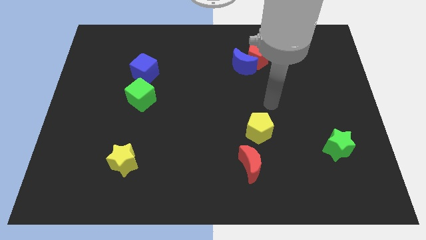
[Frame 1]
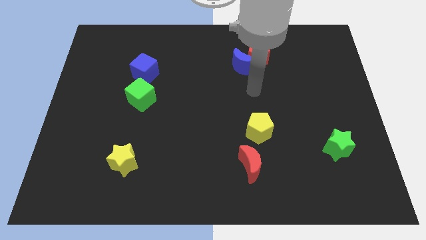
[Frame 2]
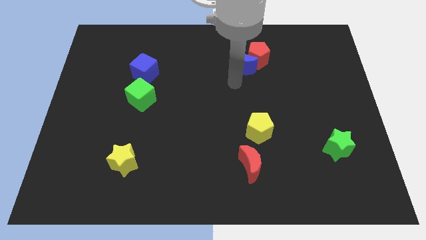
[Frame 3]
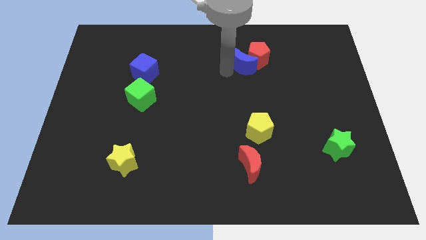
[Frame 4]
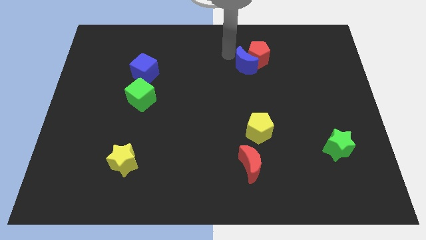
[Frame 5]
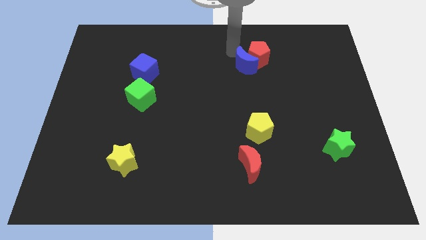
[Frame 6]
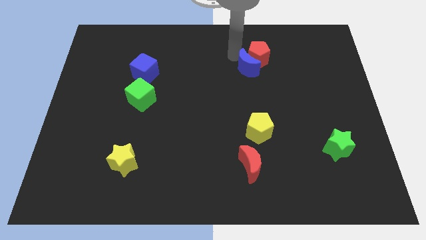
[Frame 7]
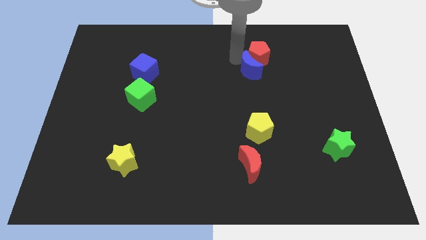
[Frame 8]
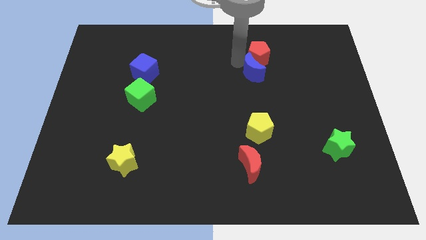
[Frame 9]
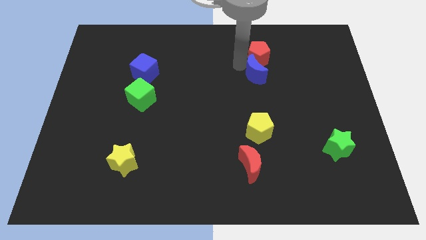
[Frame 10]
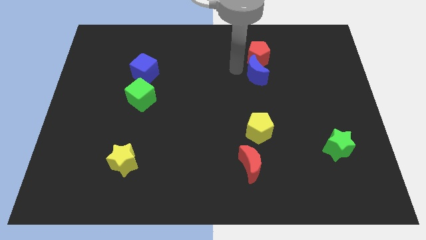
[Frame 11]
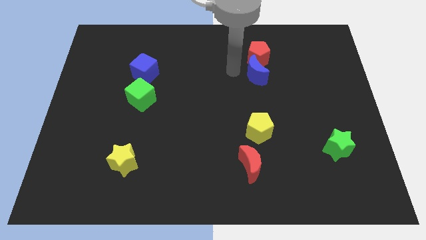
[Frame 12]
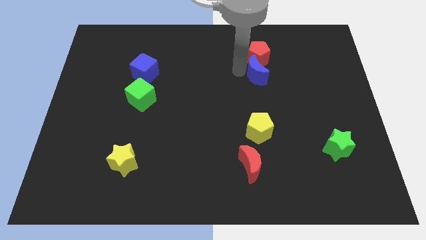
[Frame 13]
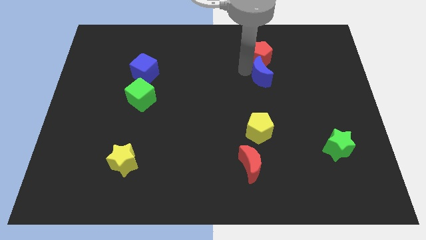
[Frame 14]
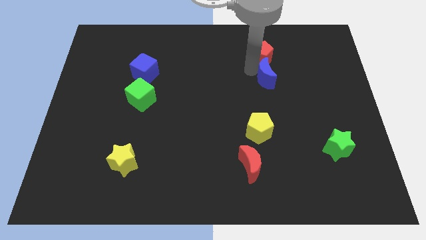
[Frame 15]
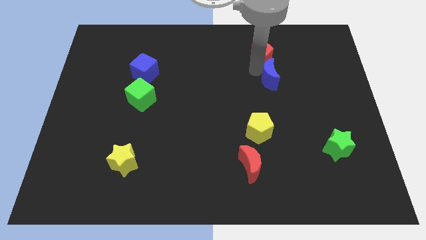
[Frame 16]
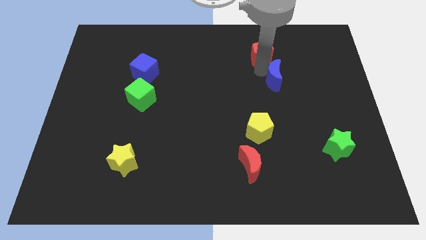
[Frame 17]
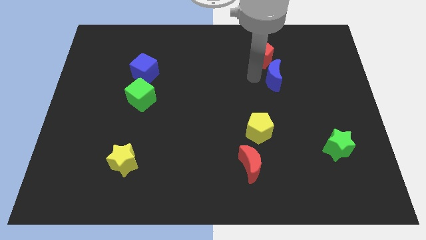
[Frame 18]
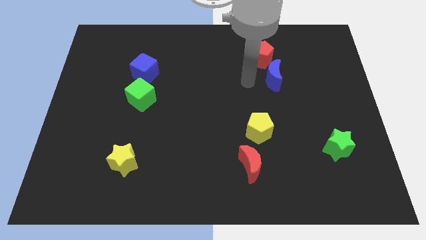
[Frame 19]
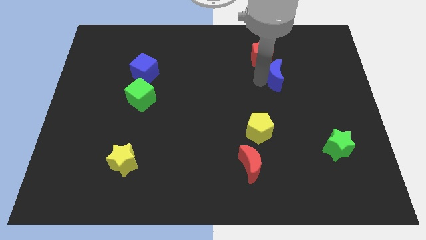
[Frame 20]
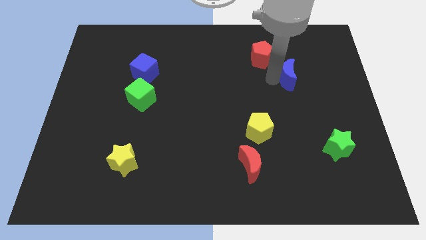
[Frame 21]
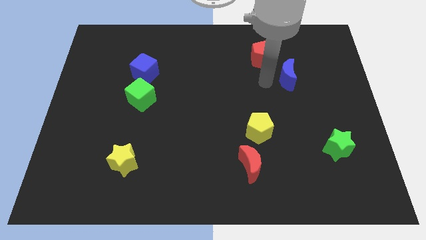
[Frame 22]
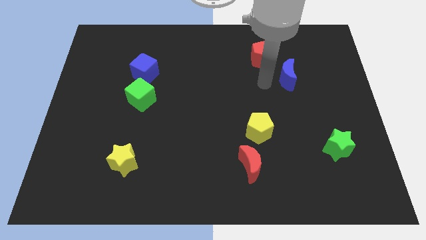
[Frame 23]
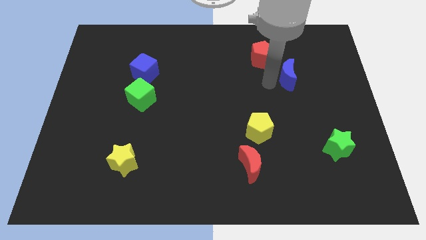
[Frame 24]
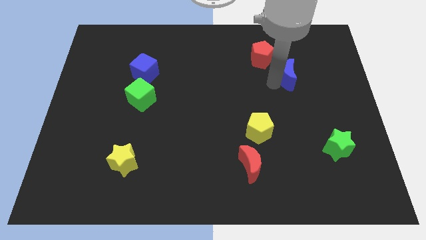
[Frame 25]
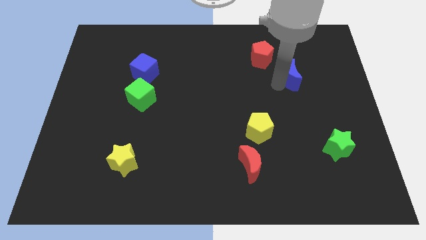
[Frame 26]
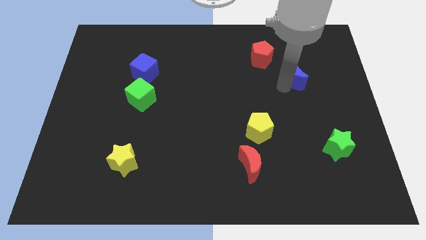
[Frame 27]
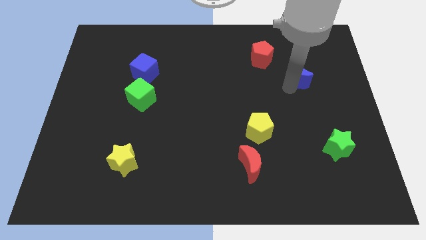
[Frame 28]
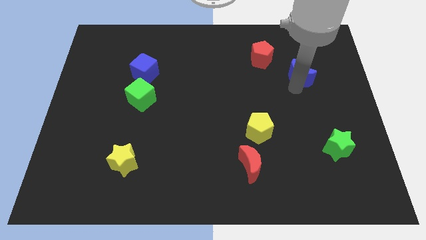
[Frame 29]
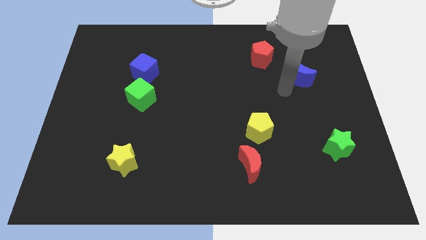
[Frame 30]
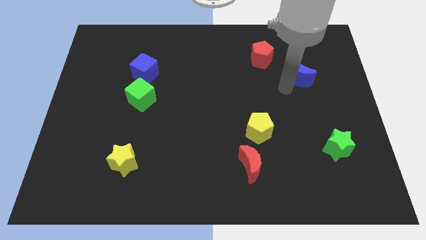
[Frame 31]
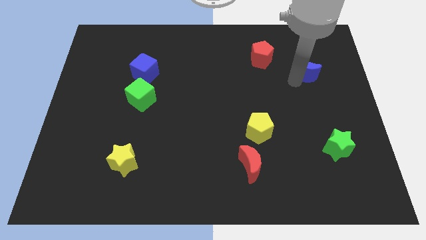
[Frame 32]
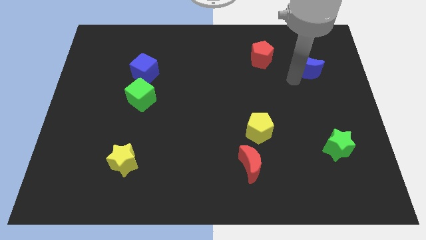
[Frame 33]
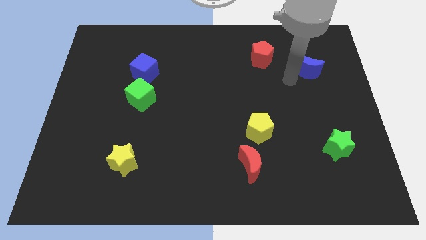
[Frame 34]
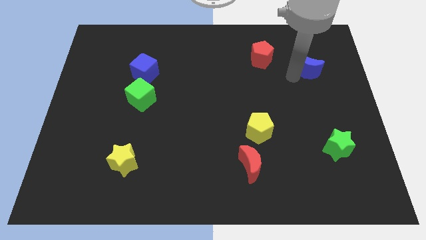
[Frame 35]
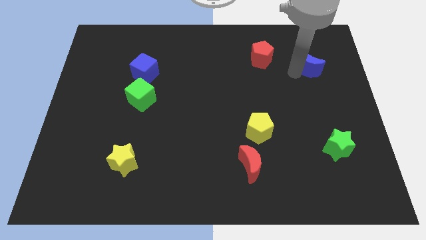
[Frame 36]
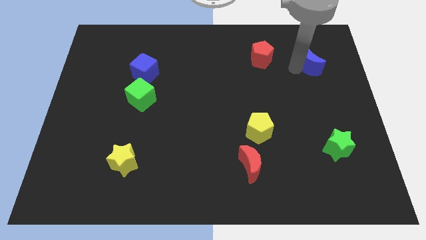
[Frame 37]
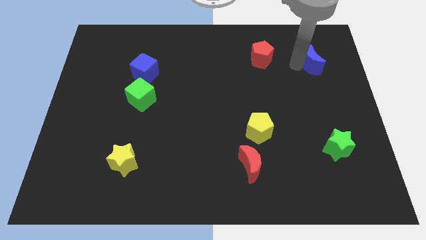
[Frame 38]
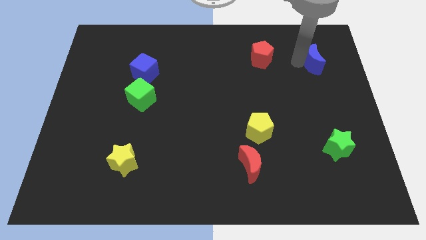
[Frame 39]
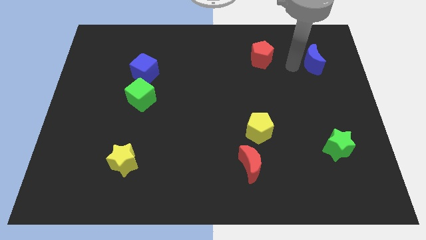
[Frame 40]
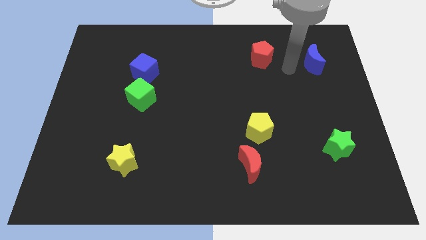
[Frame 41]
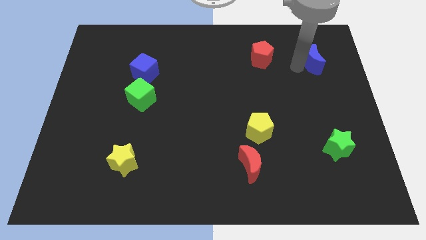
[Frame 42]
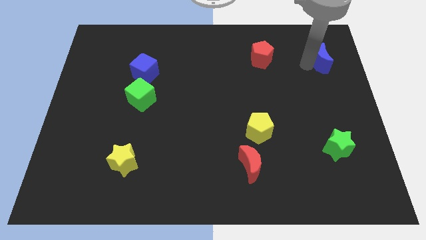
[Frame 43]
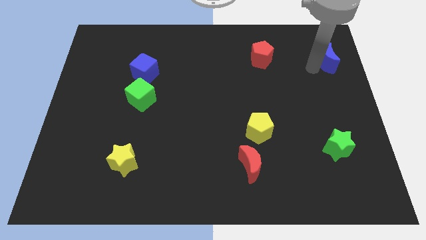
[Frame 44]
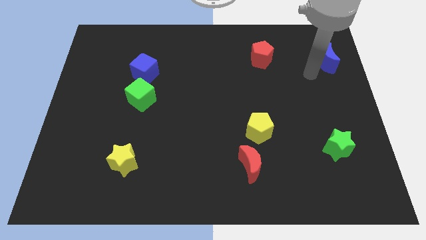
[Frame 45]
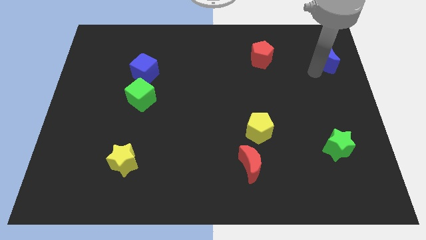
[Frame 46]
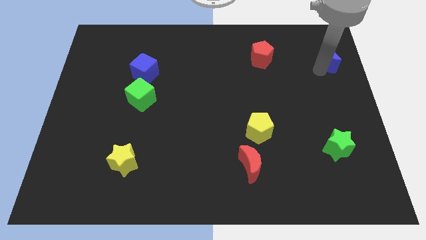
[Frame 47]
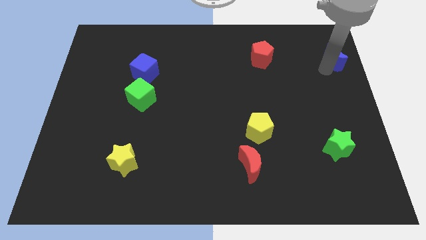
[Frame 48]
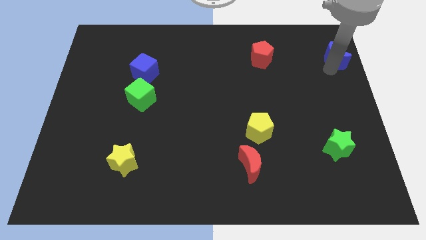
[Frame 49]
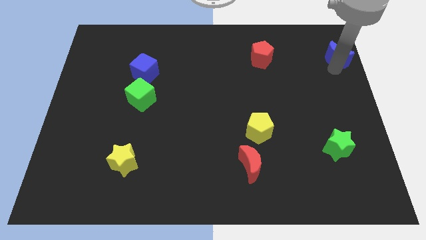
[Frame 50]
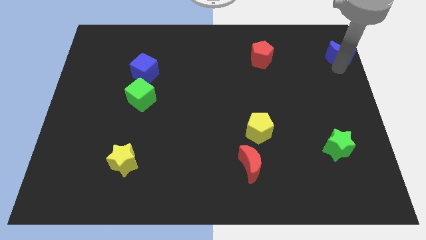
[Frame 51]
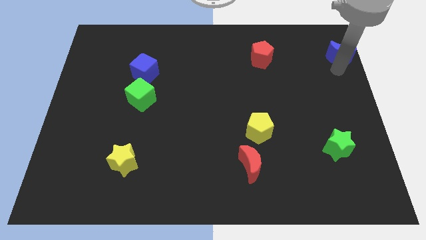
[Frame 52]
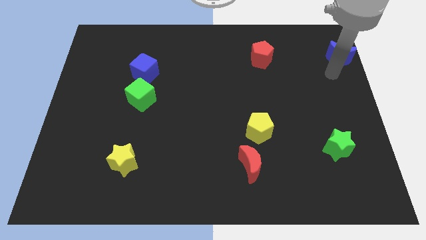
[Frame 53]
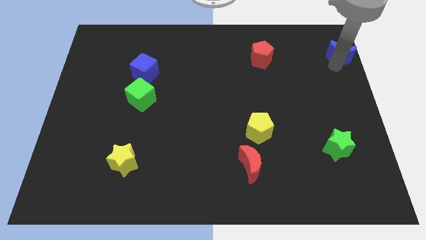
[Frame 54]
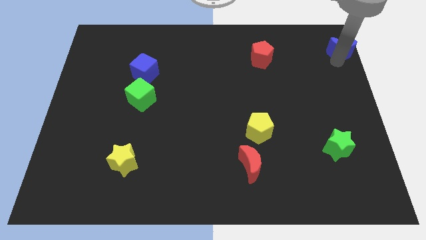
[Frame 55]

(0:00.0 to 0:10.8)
slide the blue moon to the top right

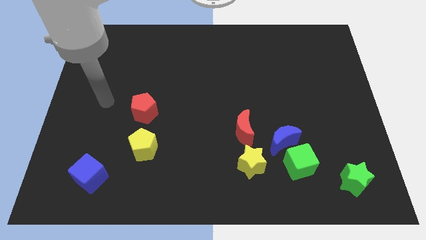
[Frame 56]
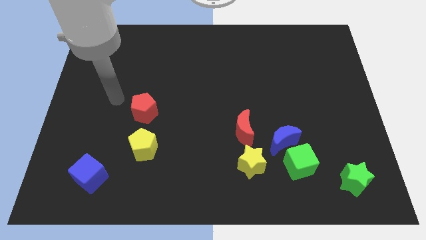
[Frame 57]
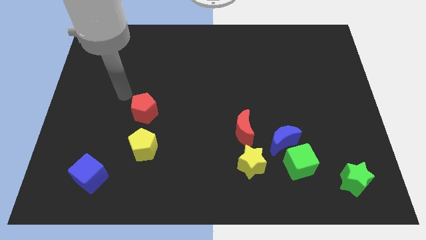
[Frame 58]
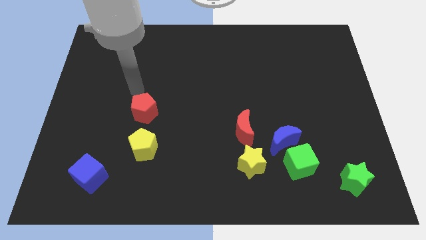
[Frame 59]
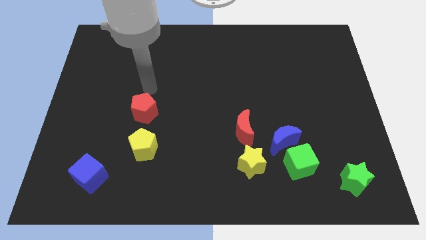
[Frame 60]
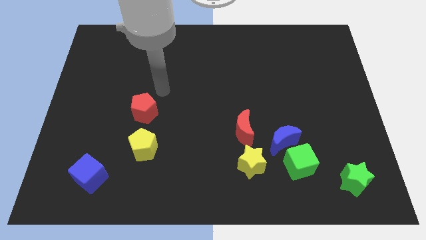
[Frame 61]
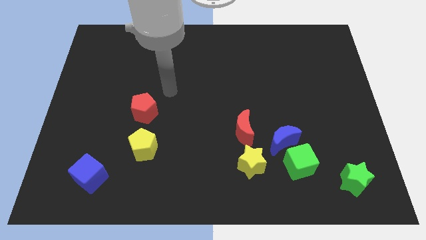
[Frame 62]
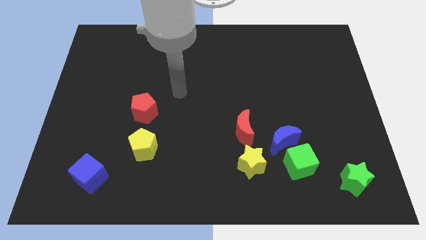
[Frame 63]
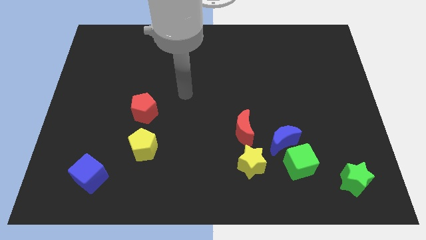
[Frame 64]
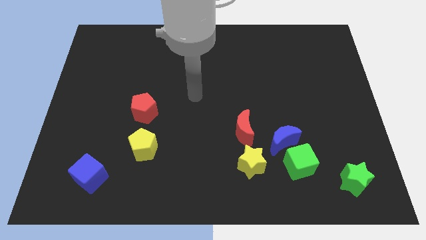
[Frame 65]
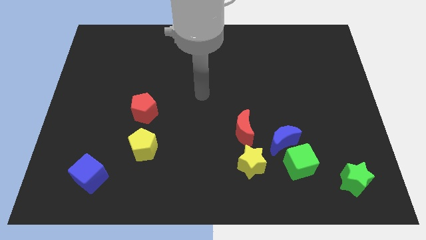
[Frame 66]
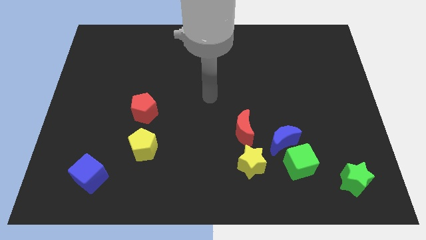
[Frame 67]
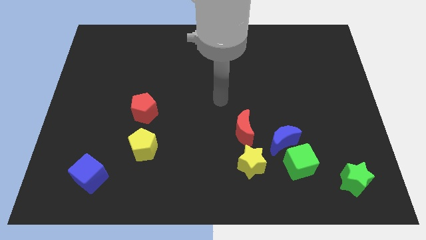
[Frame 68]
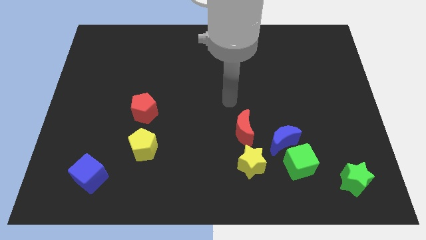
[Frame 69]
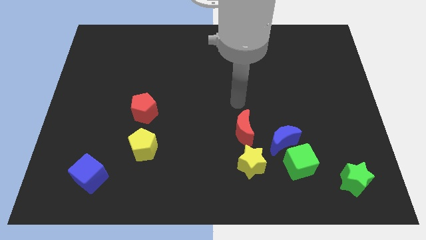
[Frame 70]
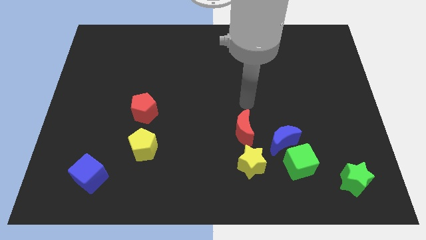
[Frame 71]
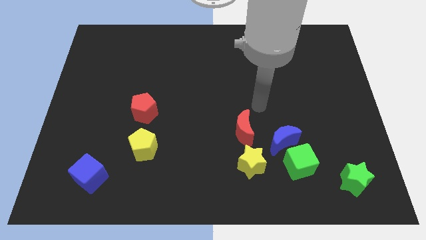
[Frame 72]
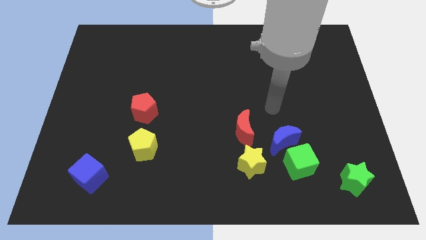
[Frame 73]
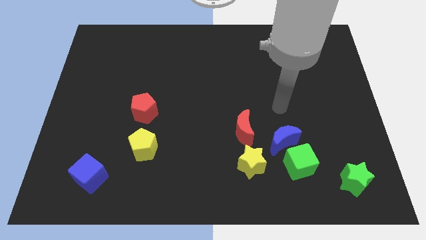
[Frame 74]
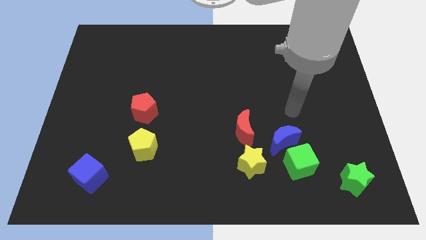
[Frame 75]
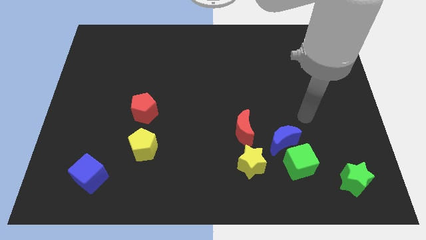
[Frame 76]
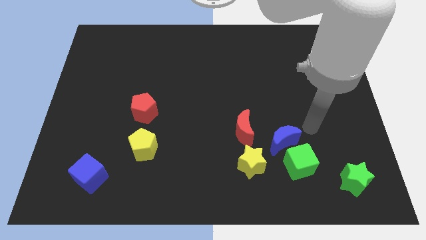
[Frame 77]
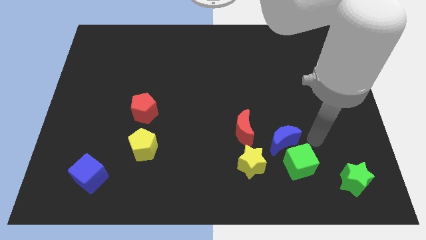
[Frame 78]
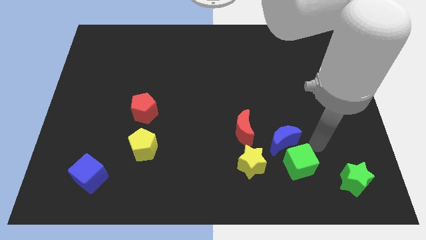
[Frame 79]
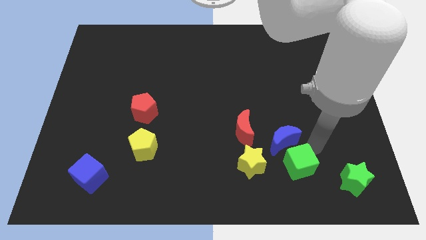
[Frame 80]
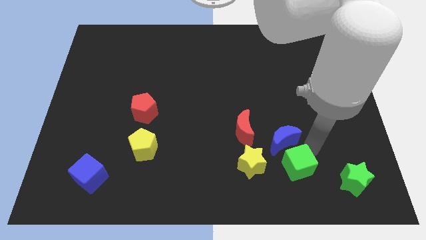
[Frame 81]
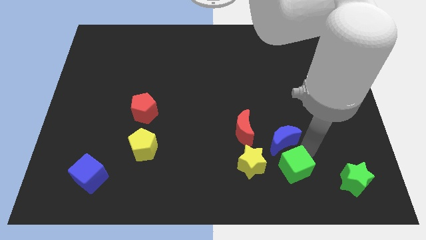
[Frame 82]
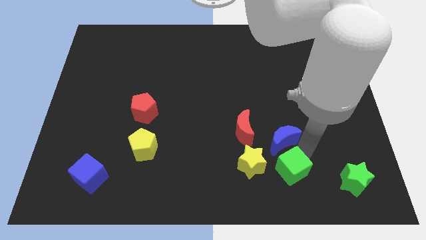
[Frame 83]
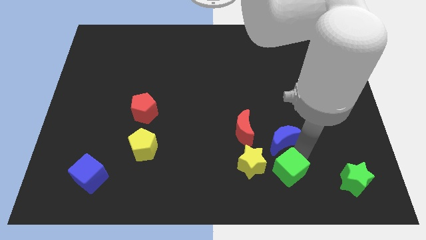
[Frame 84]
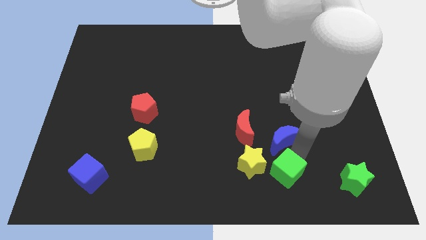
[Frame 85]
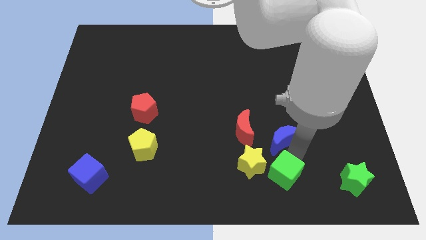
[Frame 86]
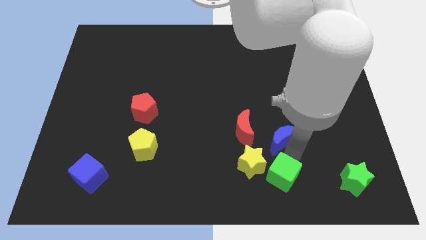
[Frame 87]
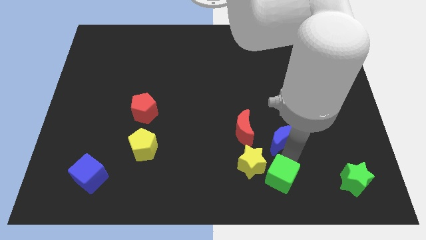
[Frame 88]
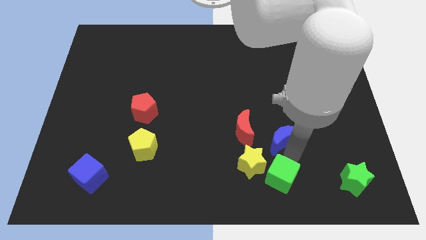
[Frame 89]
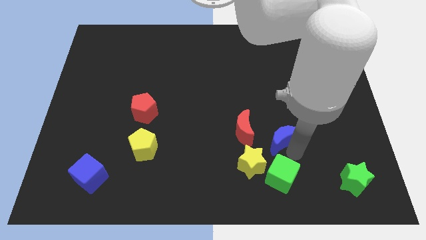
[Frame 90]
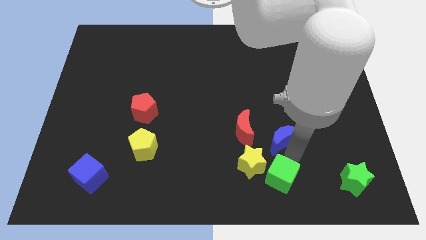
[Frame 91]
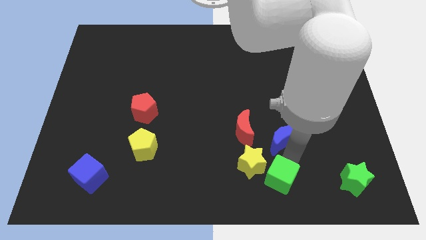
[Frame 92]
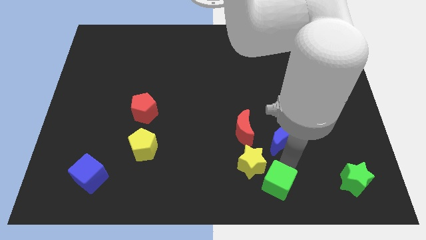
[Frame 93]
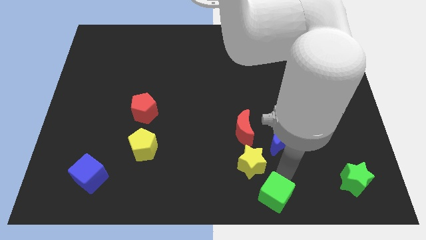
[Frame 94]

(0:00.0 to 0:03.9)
push the green cube to the bottom
